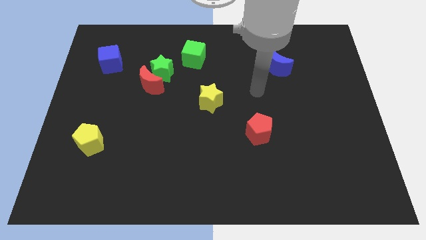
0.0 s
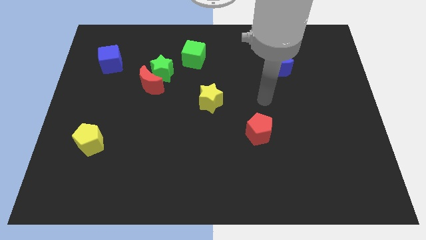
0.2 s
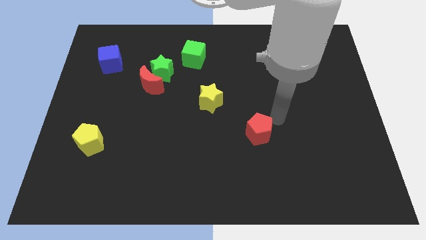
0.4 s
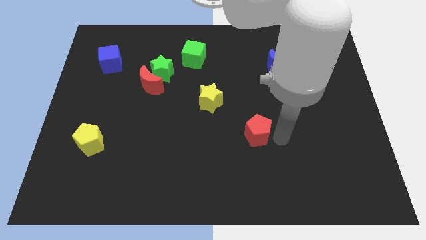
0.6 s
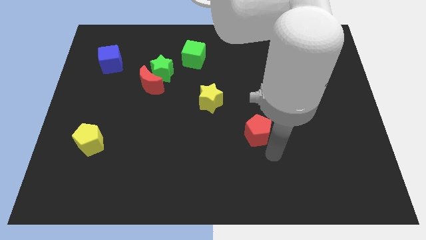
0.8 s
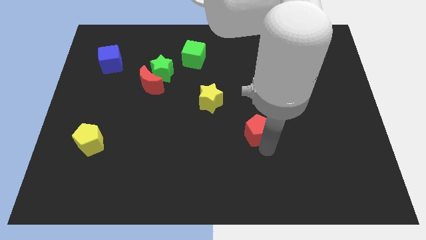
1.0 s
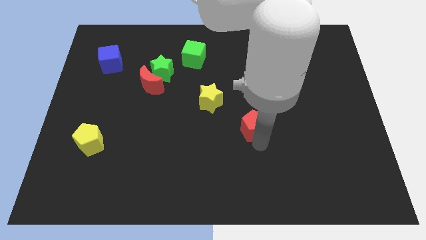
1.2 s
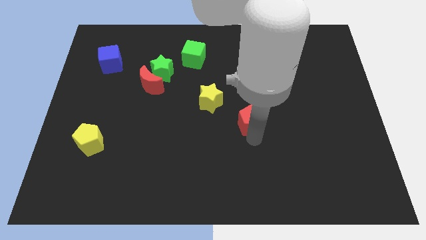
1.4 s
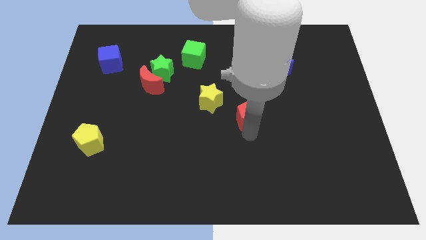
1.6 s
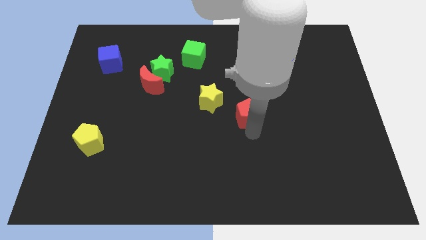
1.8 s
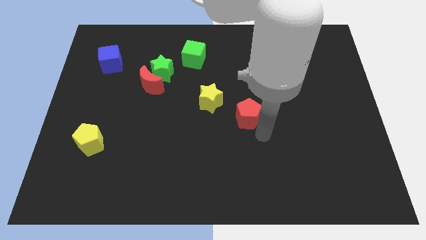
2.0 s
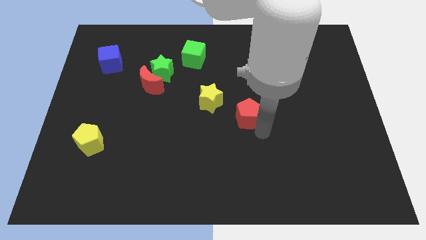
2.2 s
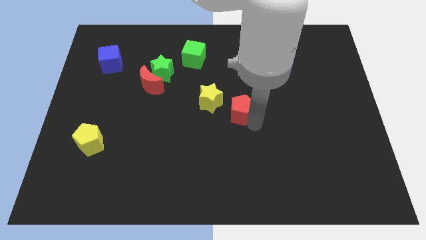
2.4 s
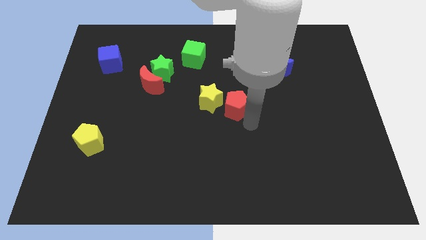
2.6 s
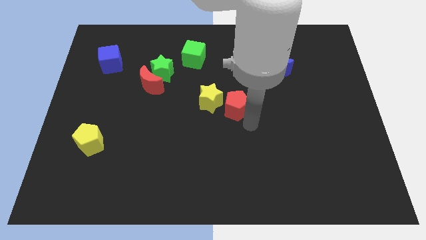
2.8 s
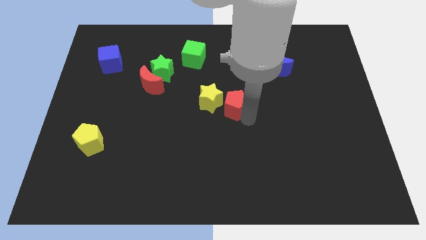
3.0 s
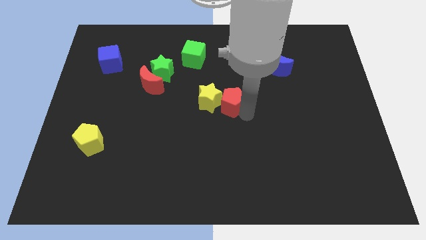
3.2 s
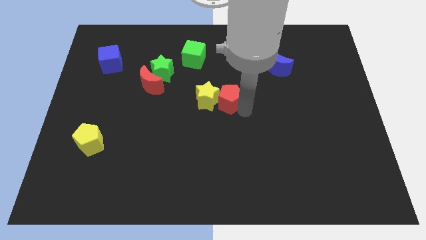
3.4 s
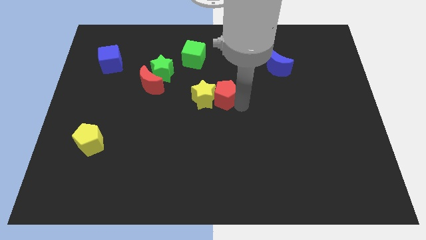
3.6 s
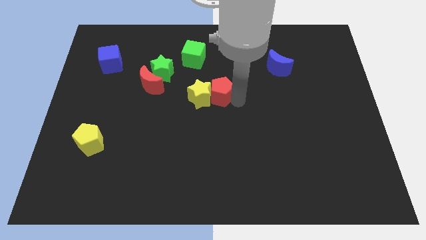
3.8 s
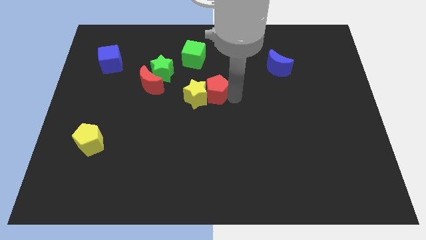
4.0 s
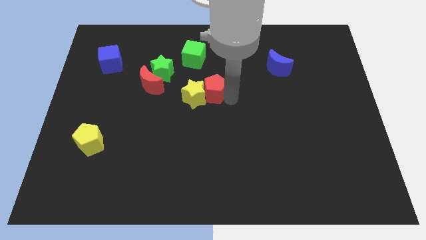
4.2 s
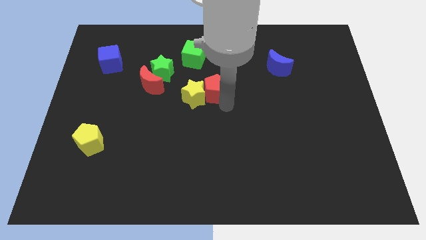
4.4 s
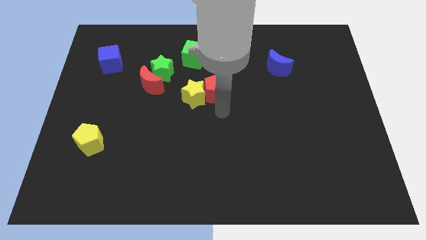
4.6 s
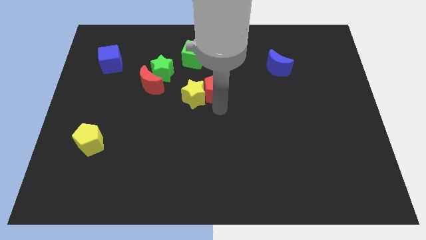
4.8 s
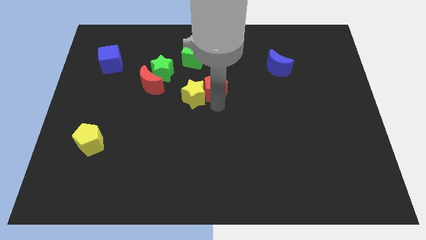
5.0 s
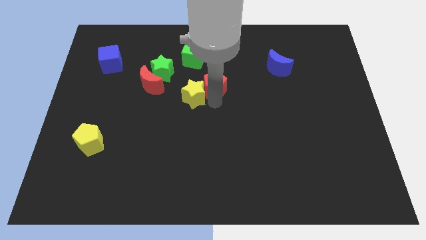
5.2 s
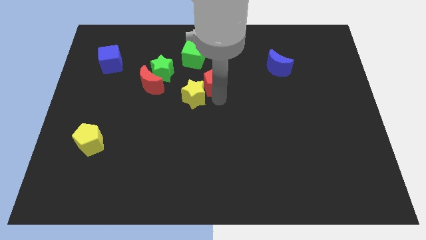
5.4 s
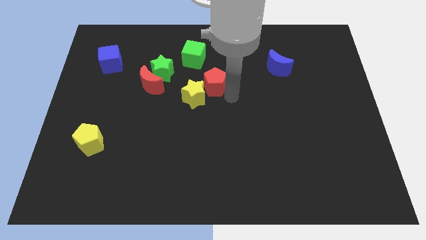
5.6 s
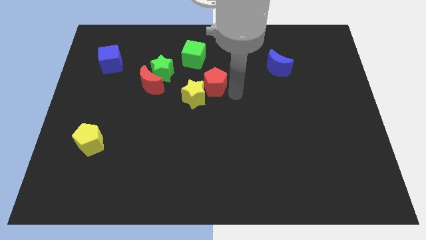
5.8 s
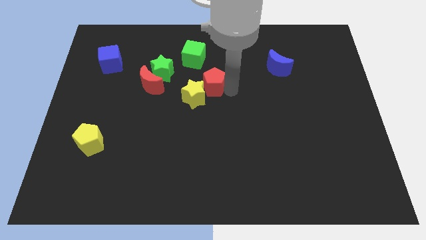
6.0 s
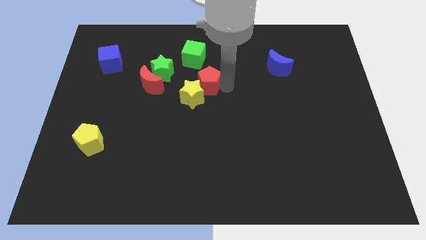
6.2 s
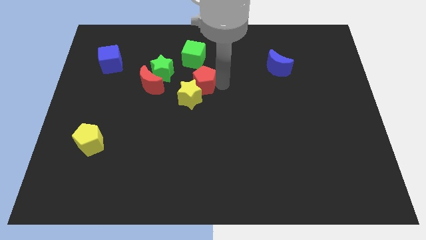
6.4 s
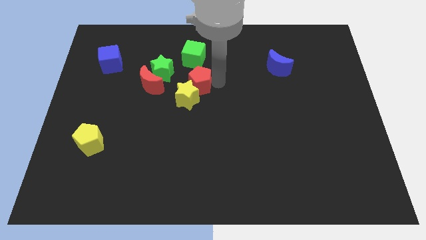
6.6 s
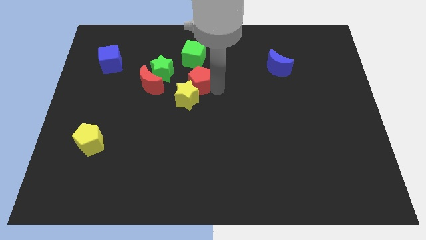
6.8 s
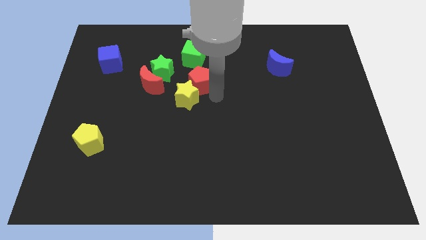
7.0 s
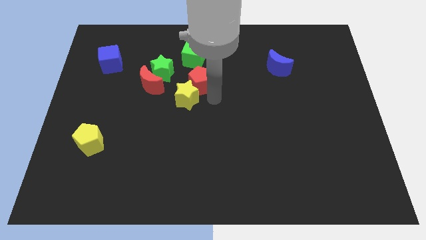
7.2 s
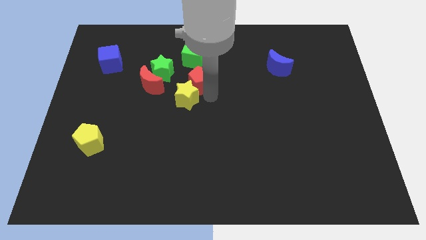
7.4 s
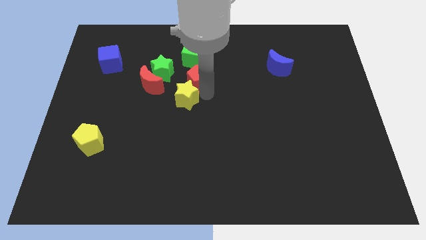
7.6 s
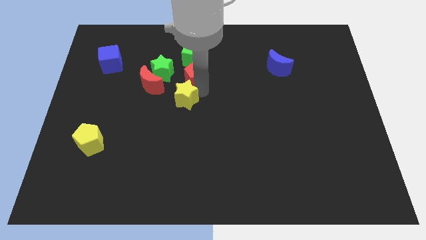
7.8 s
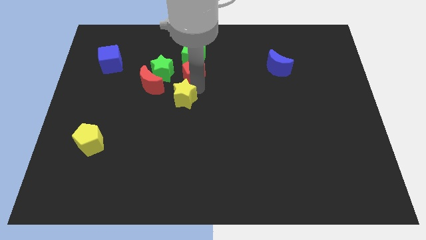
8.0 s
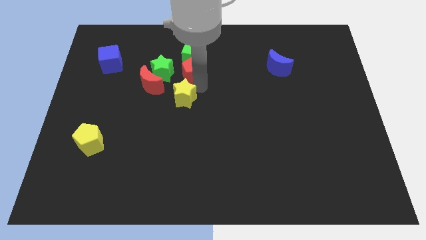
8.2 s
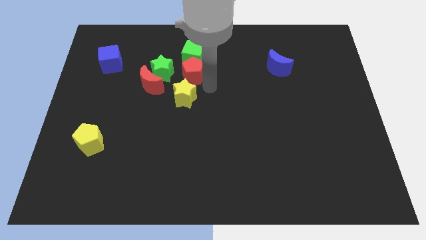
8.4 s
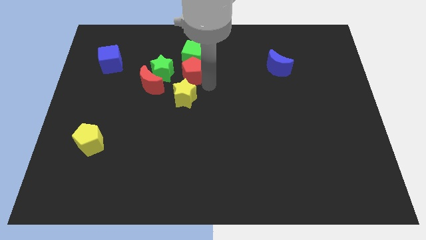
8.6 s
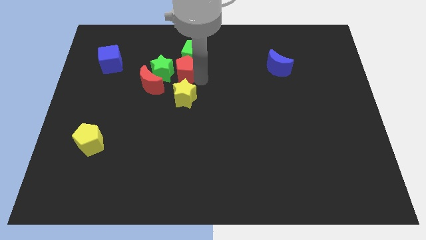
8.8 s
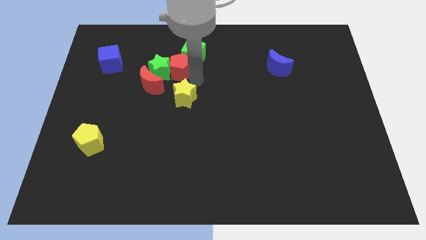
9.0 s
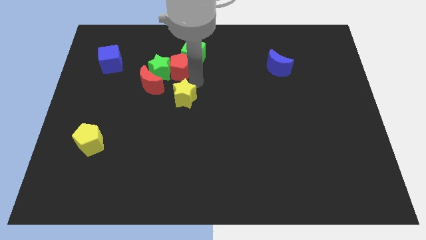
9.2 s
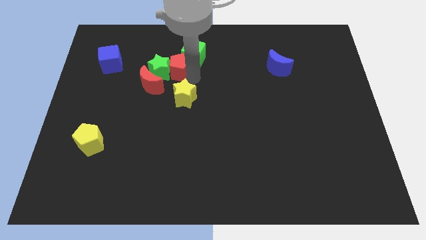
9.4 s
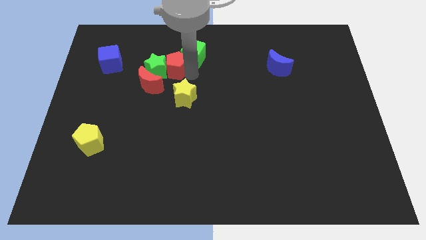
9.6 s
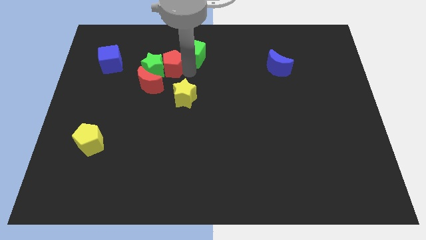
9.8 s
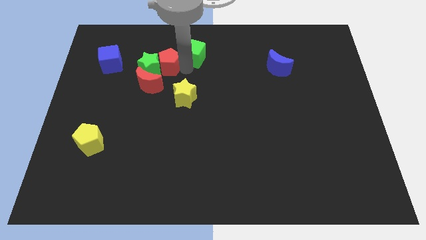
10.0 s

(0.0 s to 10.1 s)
slide the red pentagon to the top side of the red moon

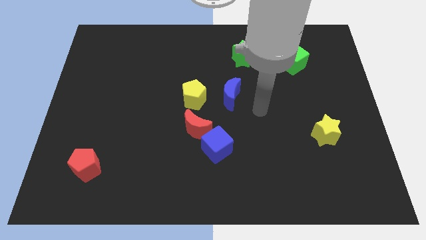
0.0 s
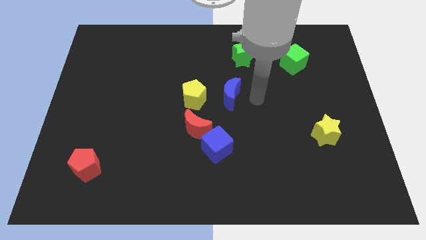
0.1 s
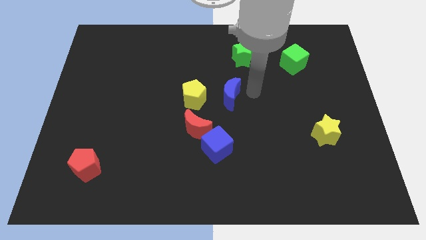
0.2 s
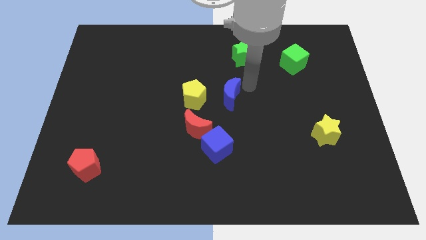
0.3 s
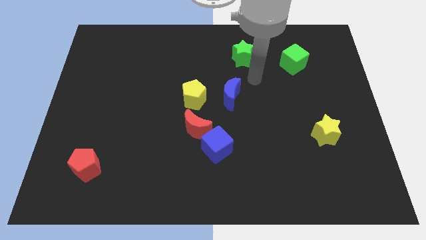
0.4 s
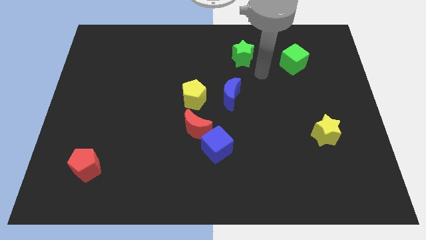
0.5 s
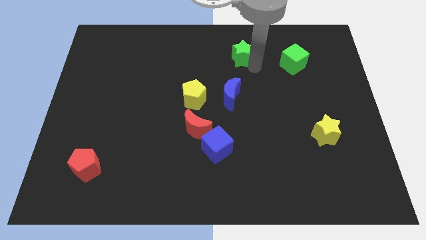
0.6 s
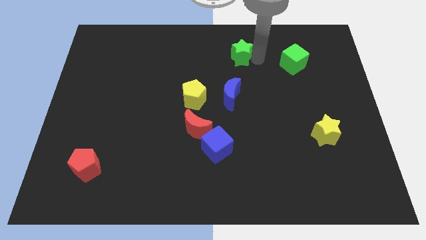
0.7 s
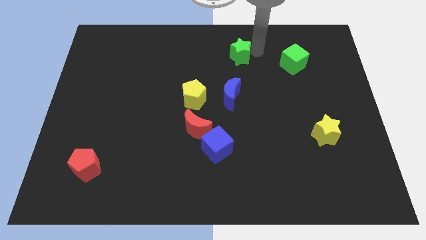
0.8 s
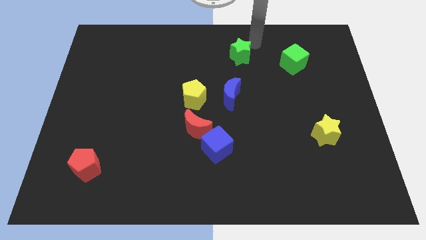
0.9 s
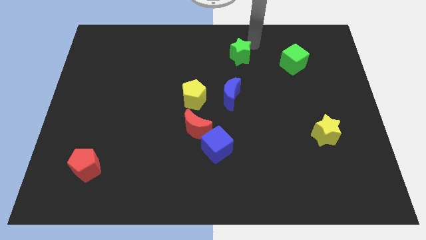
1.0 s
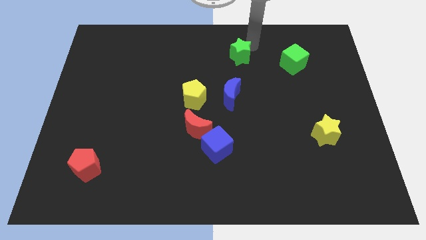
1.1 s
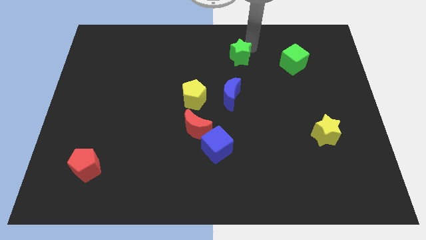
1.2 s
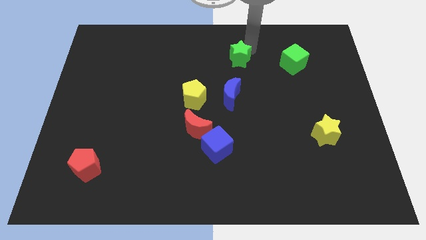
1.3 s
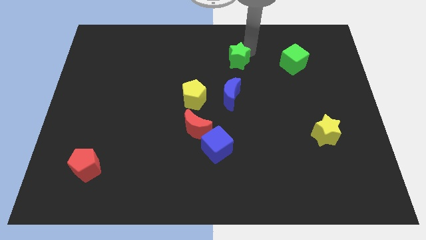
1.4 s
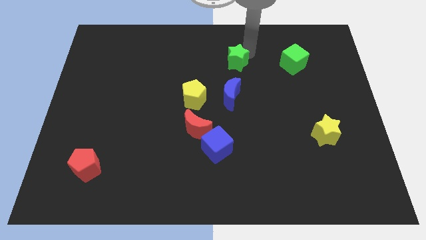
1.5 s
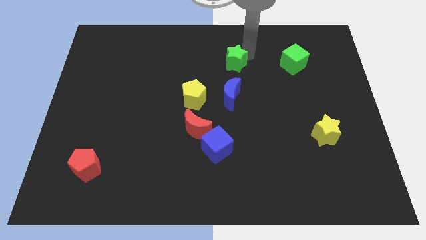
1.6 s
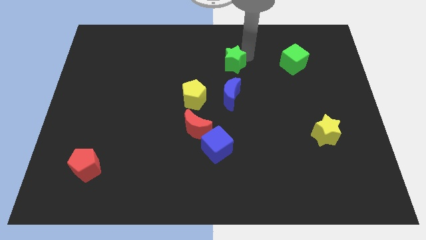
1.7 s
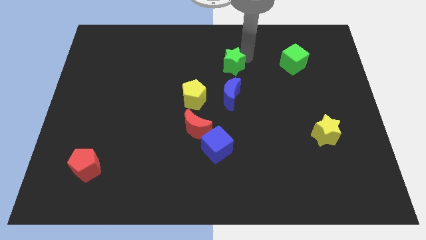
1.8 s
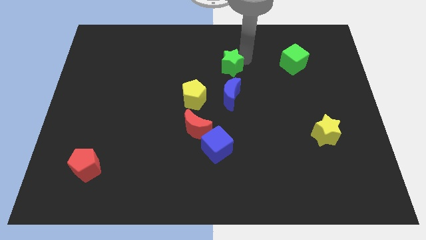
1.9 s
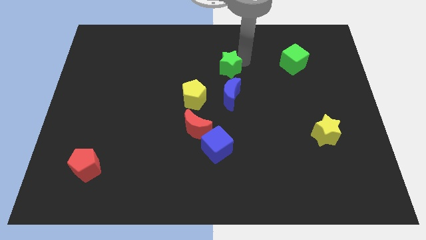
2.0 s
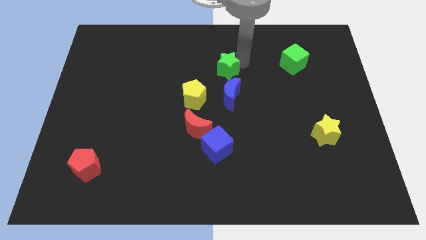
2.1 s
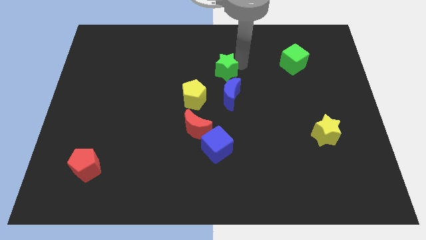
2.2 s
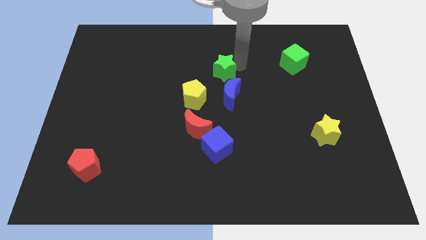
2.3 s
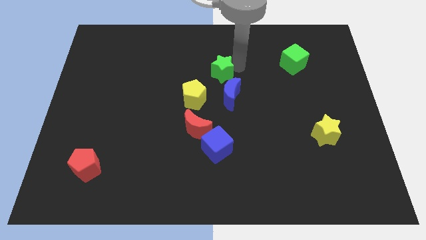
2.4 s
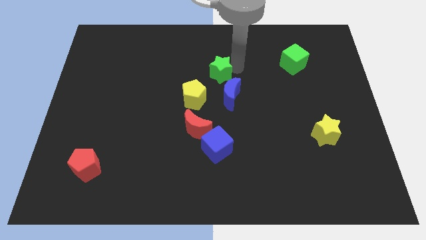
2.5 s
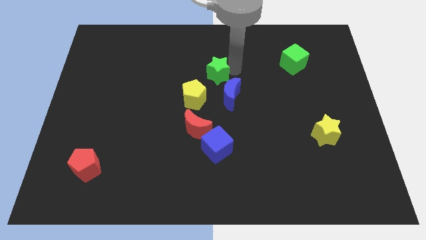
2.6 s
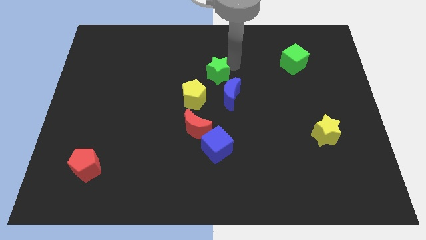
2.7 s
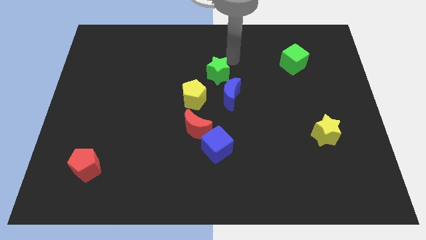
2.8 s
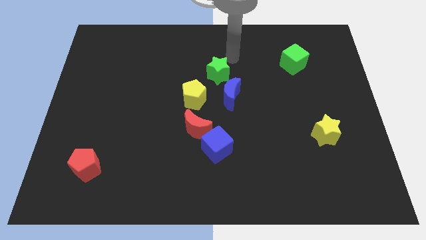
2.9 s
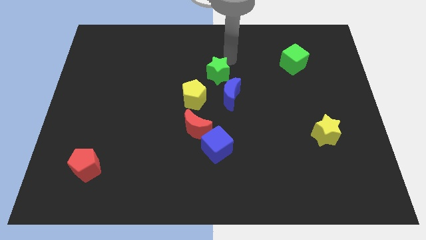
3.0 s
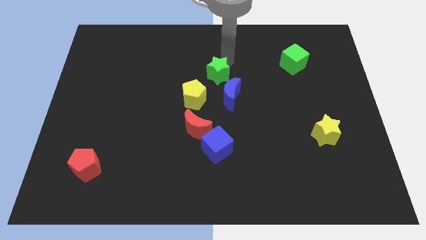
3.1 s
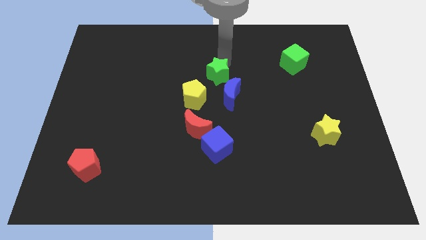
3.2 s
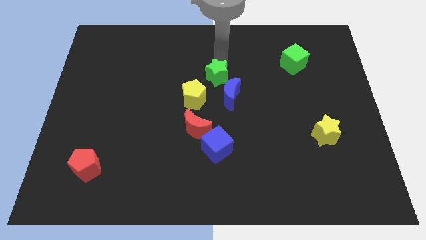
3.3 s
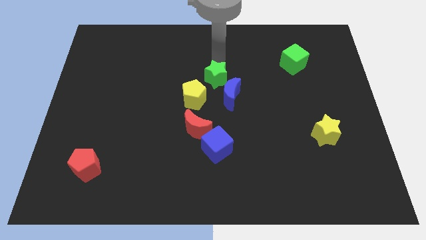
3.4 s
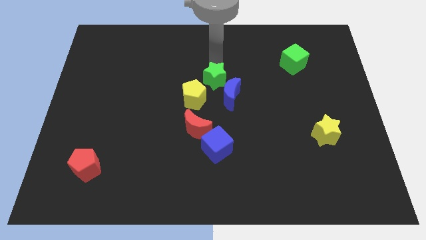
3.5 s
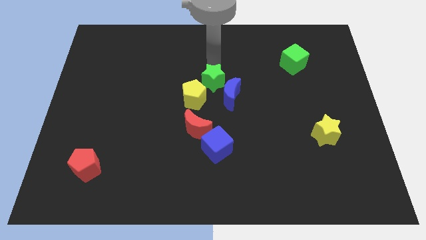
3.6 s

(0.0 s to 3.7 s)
slide the green star to the top side of the red moon
